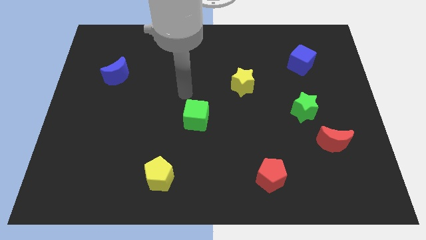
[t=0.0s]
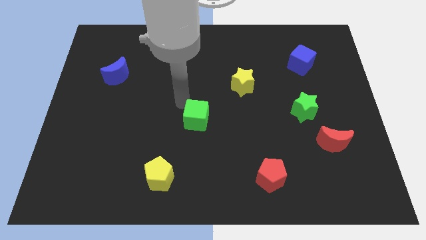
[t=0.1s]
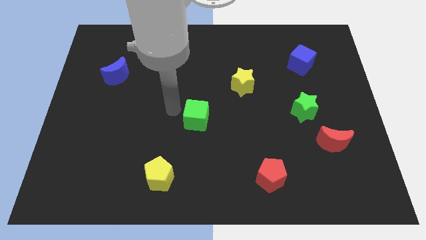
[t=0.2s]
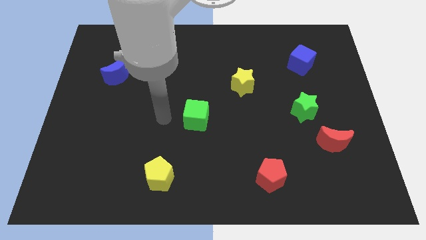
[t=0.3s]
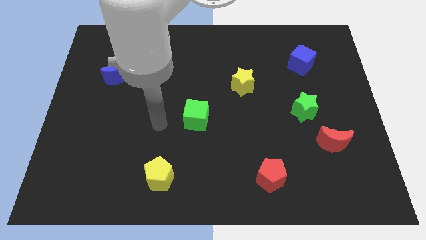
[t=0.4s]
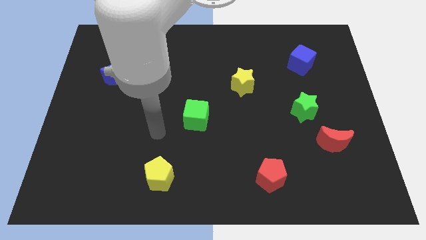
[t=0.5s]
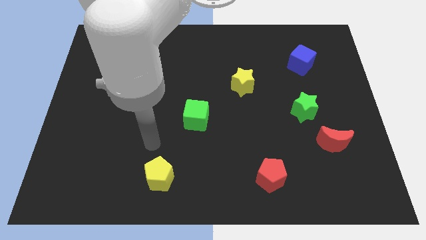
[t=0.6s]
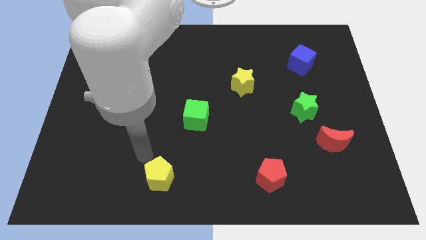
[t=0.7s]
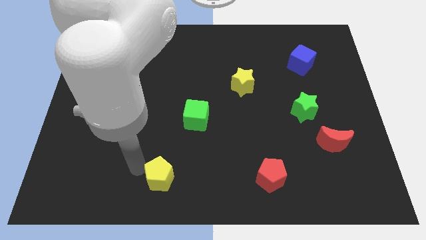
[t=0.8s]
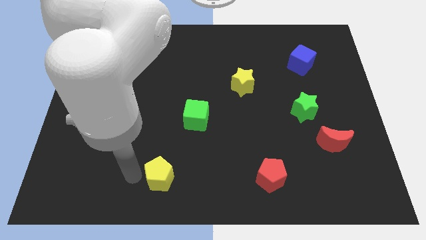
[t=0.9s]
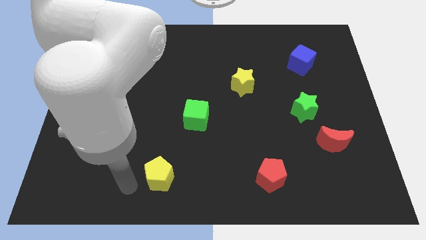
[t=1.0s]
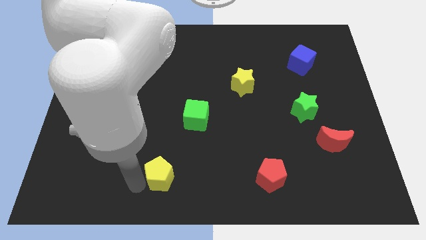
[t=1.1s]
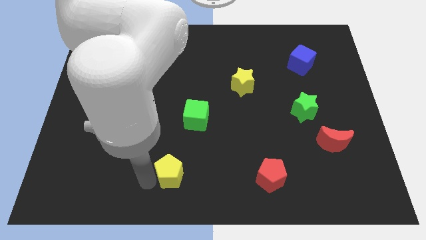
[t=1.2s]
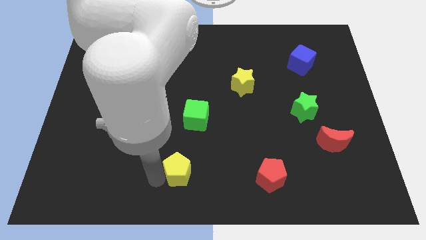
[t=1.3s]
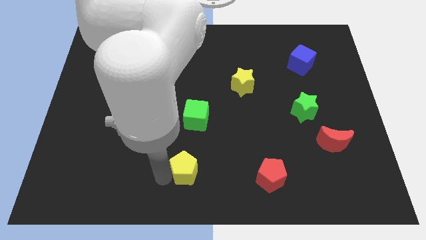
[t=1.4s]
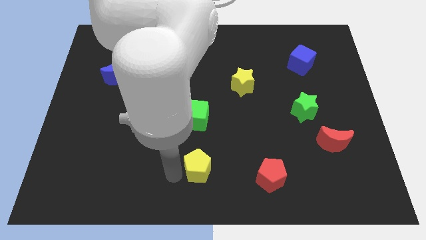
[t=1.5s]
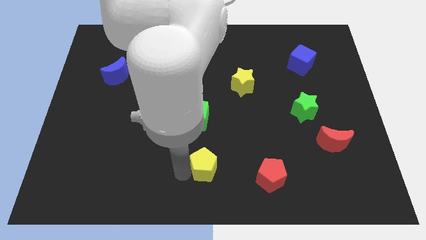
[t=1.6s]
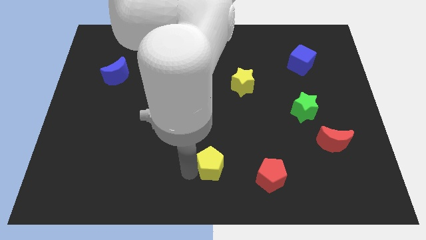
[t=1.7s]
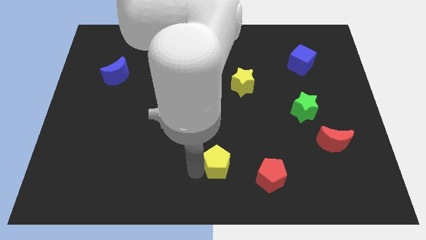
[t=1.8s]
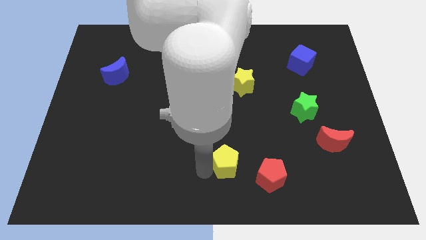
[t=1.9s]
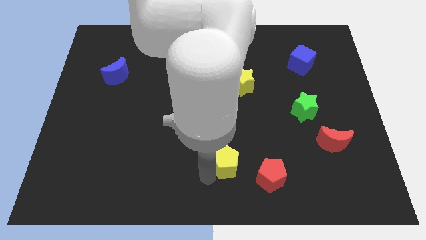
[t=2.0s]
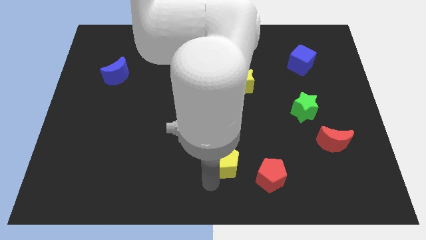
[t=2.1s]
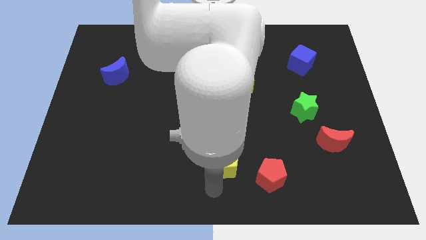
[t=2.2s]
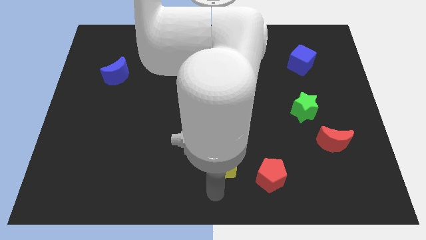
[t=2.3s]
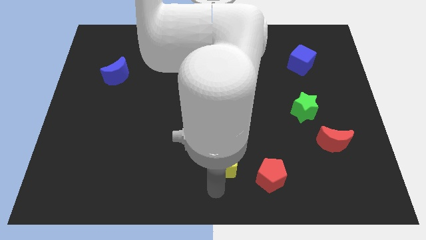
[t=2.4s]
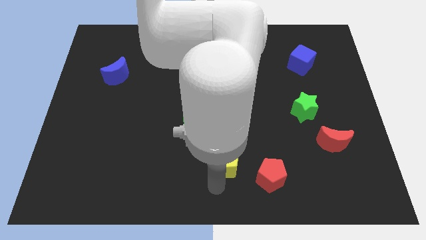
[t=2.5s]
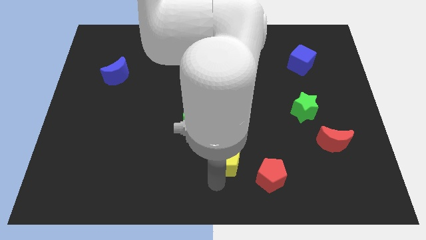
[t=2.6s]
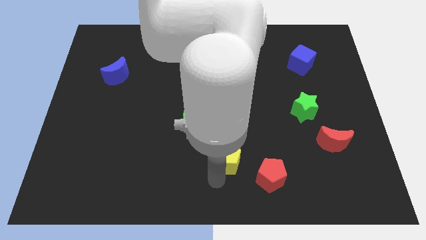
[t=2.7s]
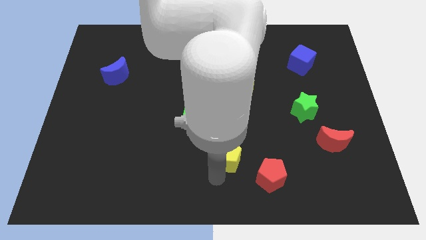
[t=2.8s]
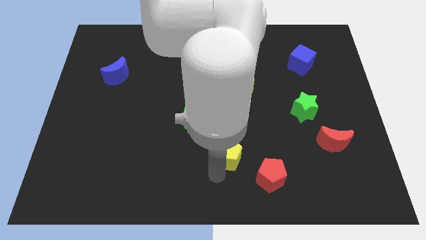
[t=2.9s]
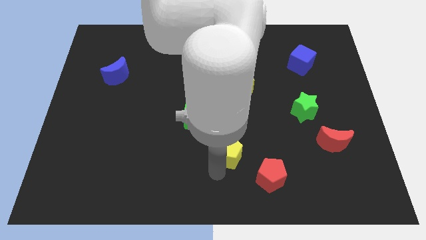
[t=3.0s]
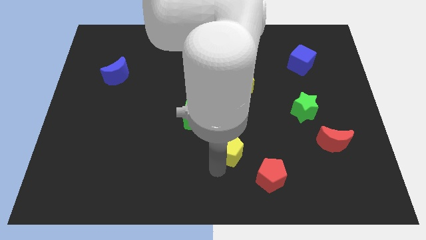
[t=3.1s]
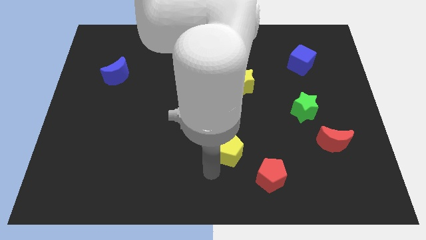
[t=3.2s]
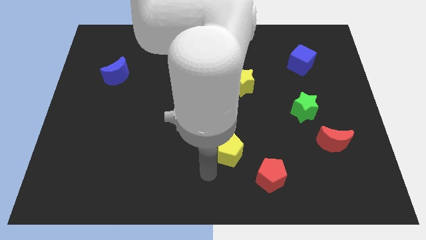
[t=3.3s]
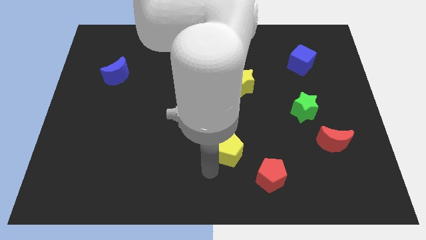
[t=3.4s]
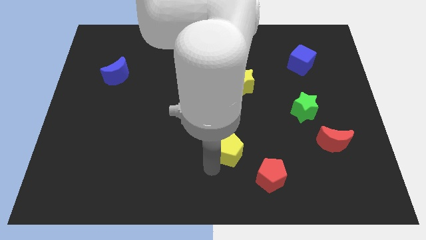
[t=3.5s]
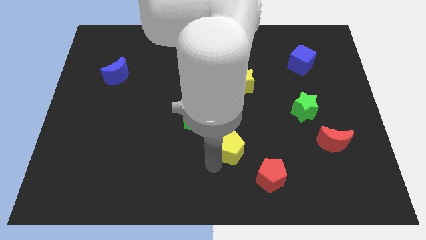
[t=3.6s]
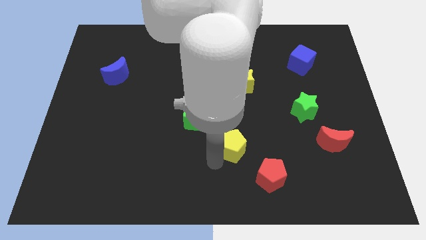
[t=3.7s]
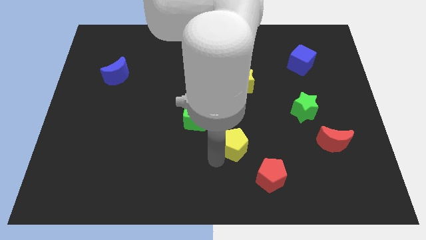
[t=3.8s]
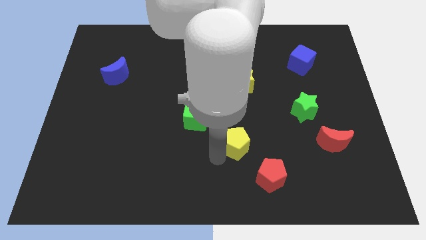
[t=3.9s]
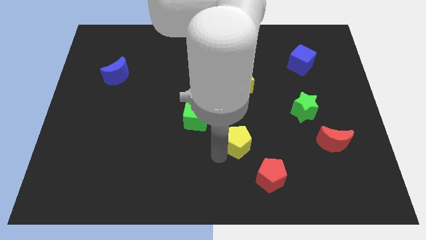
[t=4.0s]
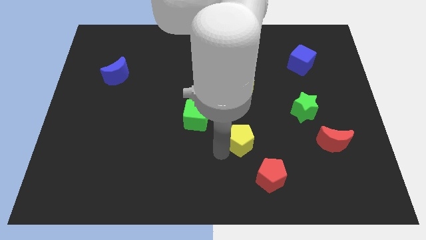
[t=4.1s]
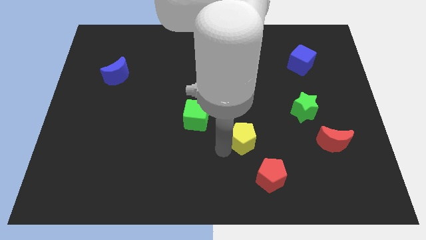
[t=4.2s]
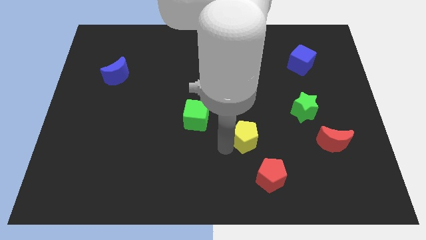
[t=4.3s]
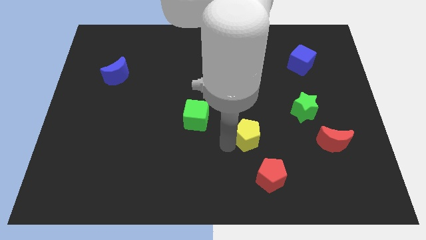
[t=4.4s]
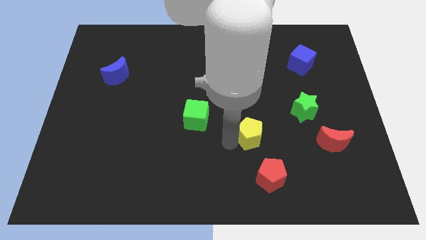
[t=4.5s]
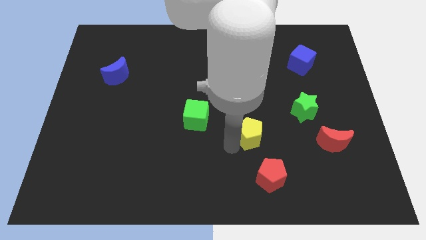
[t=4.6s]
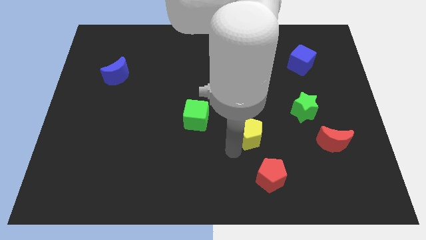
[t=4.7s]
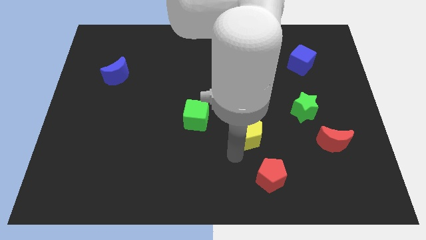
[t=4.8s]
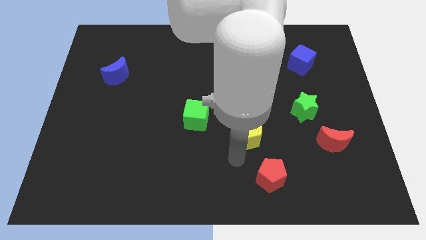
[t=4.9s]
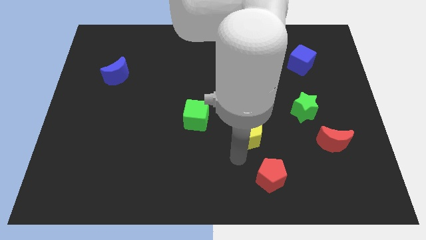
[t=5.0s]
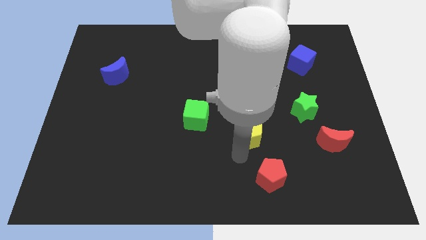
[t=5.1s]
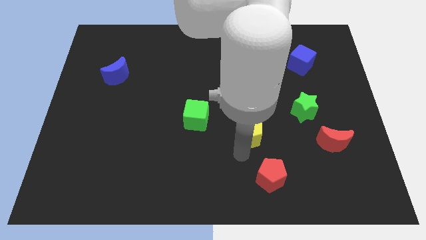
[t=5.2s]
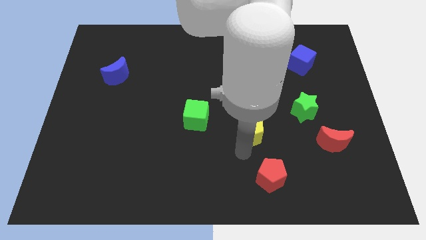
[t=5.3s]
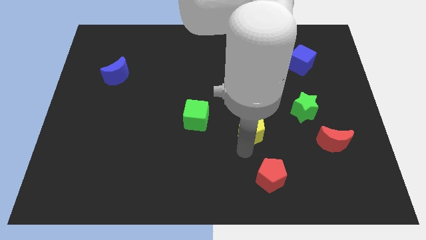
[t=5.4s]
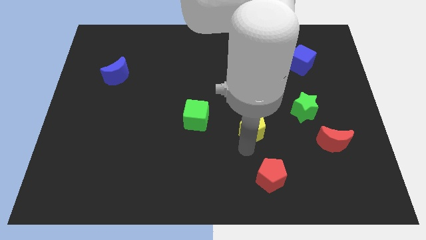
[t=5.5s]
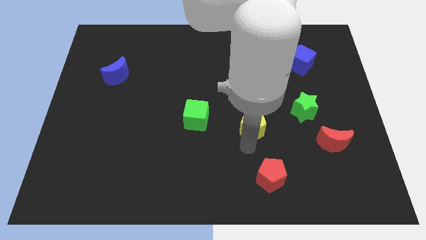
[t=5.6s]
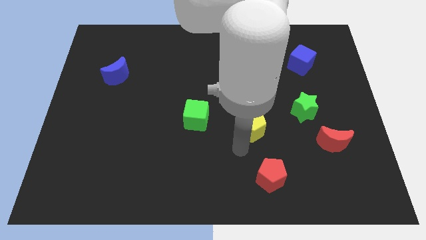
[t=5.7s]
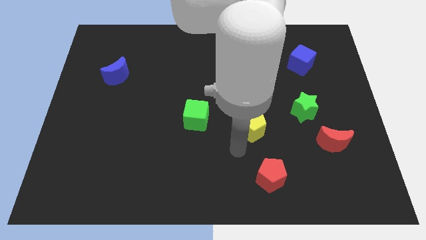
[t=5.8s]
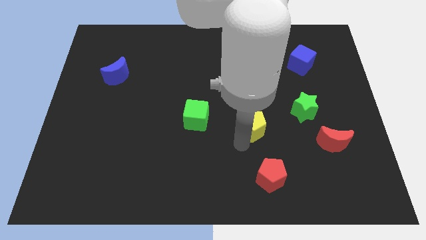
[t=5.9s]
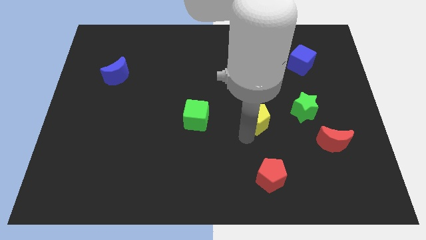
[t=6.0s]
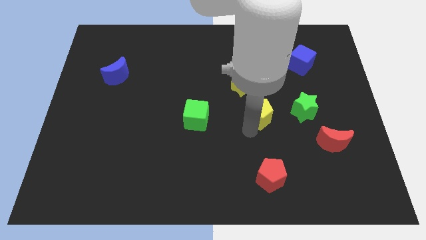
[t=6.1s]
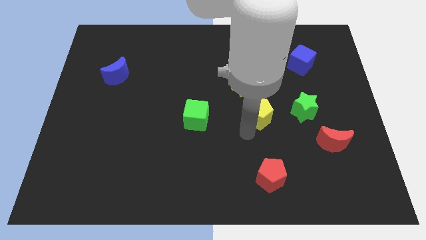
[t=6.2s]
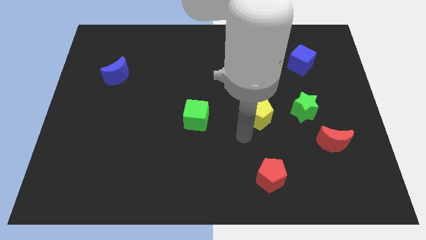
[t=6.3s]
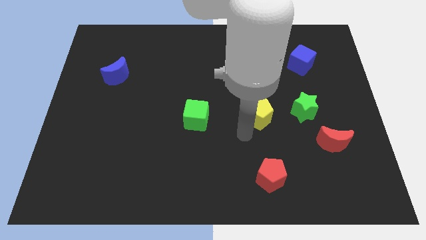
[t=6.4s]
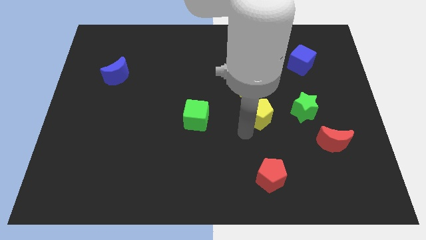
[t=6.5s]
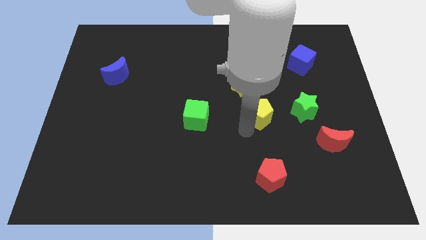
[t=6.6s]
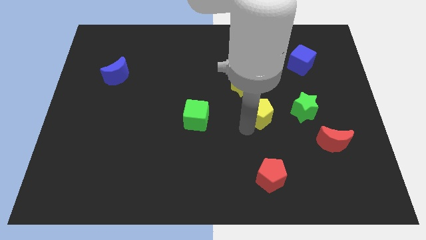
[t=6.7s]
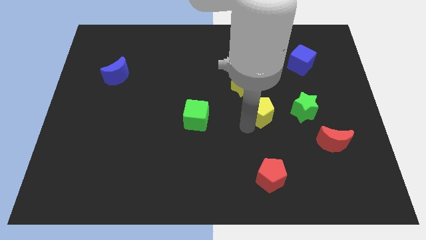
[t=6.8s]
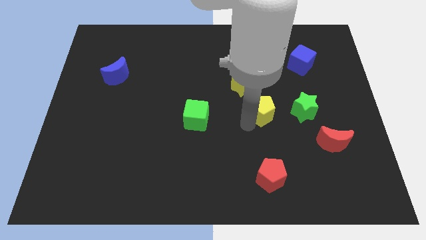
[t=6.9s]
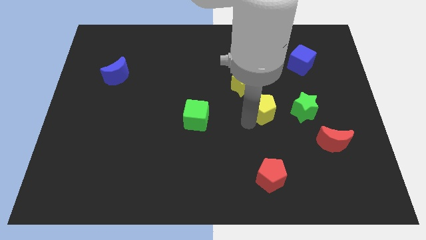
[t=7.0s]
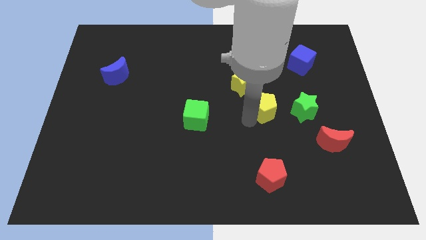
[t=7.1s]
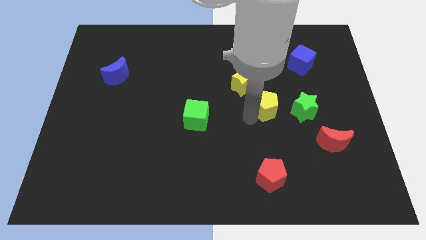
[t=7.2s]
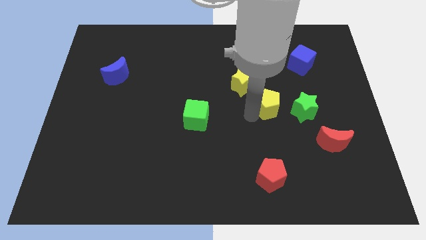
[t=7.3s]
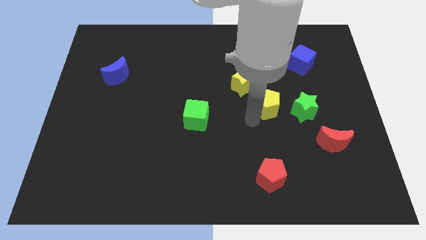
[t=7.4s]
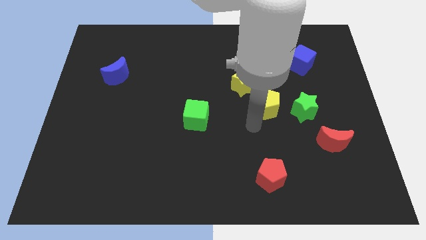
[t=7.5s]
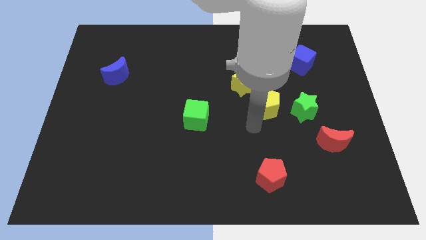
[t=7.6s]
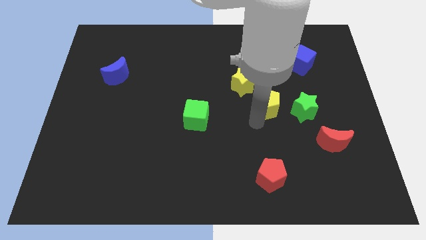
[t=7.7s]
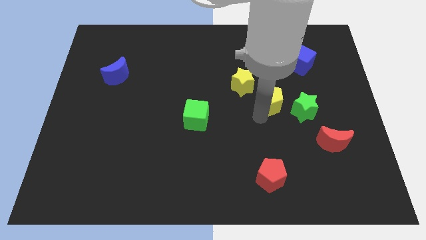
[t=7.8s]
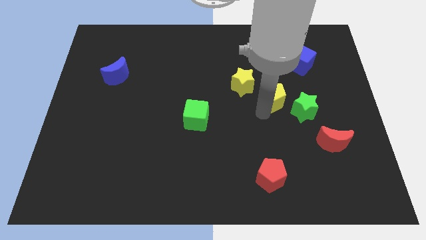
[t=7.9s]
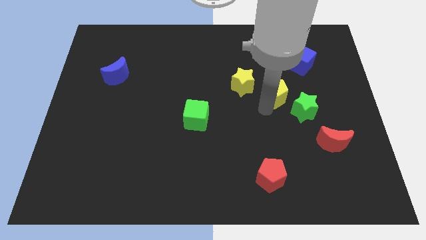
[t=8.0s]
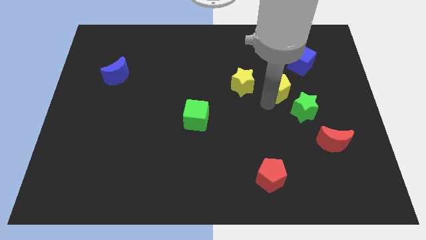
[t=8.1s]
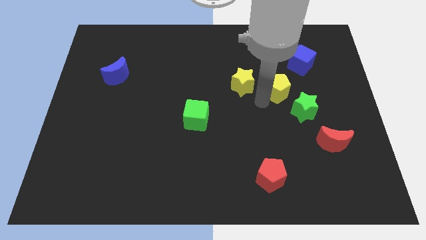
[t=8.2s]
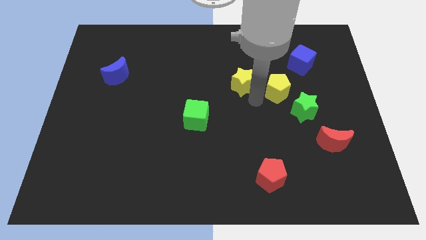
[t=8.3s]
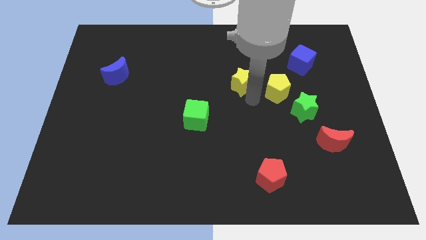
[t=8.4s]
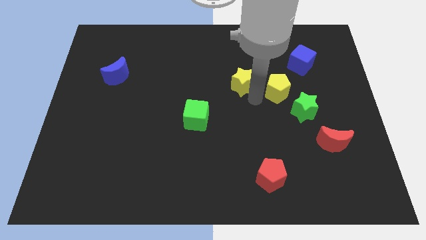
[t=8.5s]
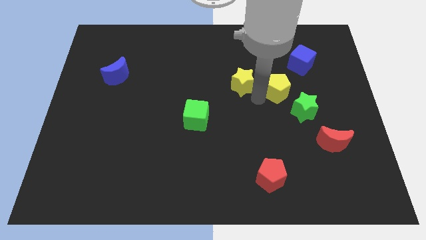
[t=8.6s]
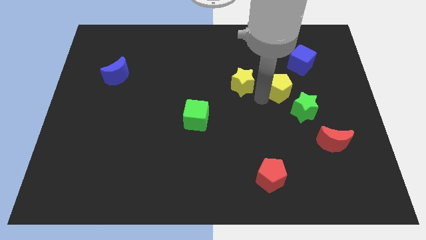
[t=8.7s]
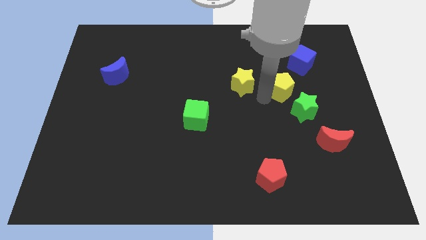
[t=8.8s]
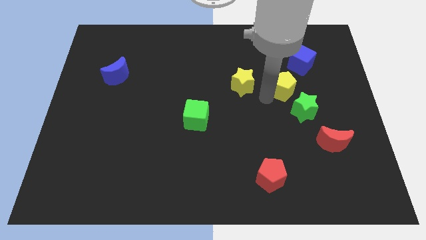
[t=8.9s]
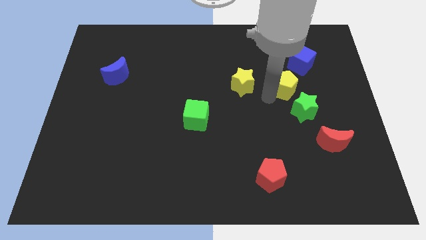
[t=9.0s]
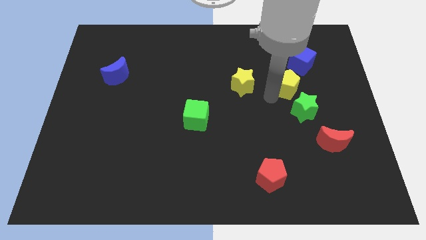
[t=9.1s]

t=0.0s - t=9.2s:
slide the yellow pentagon to the bottom of the blue cube
